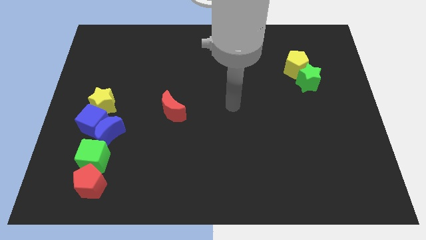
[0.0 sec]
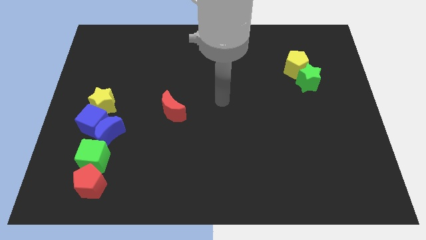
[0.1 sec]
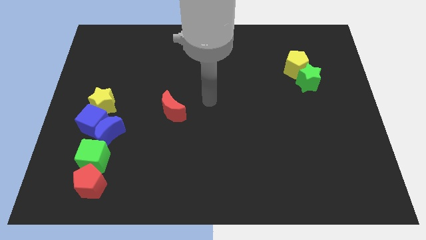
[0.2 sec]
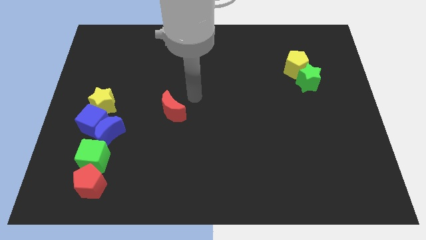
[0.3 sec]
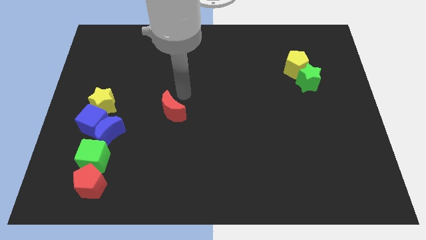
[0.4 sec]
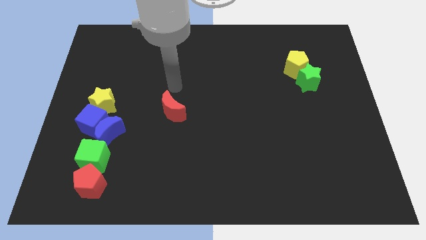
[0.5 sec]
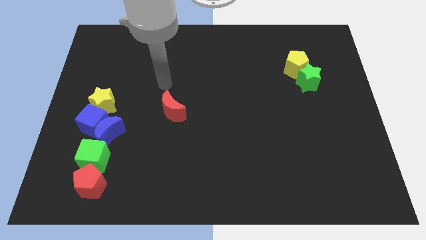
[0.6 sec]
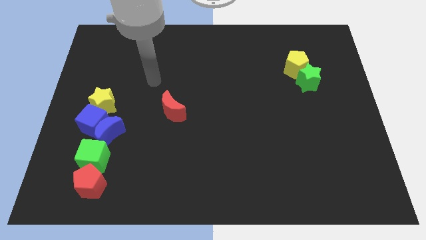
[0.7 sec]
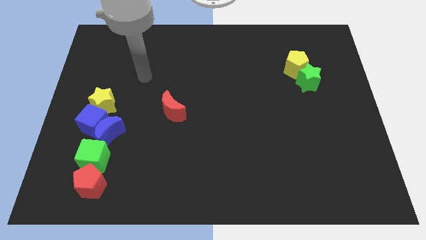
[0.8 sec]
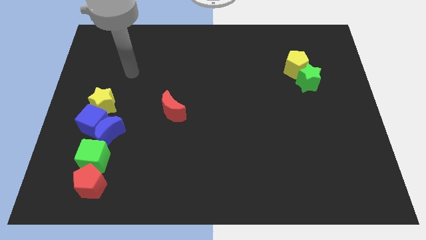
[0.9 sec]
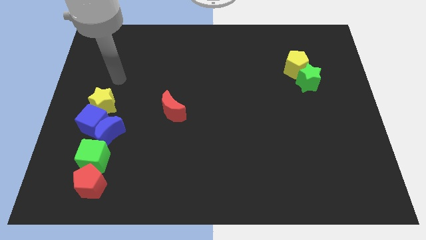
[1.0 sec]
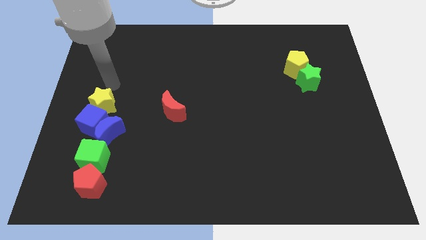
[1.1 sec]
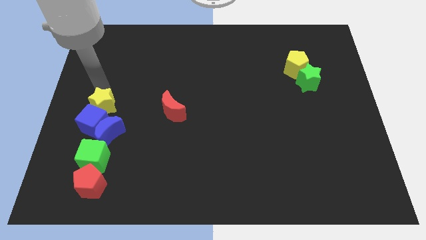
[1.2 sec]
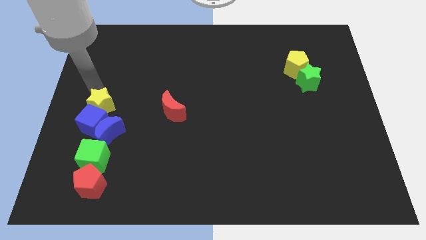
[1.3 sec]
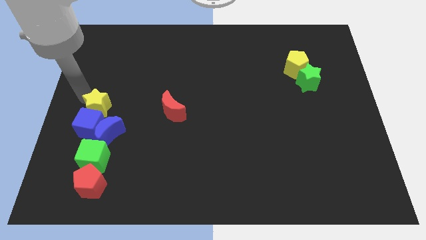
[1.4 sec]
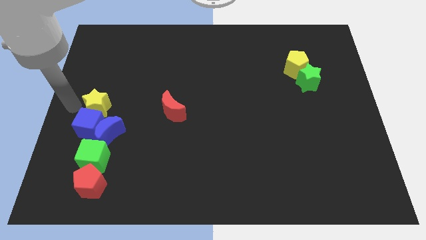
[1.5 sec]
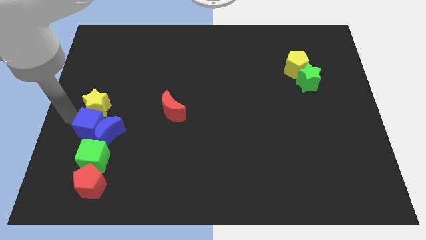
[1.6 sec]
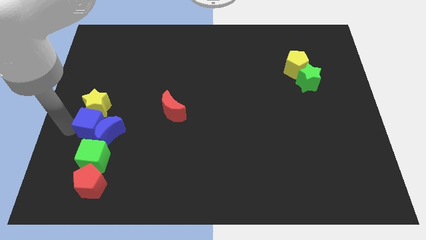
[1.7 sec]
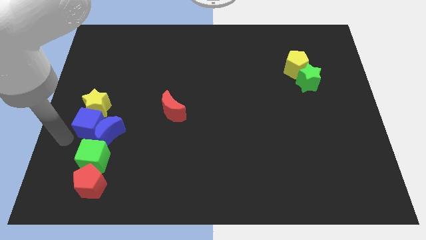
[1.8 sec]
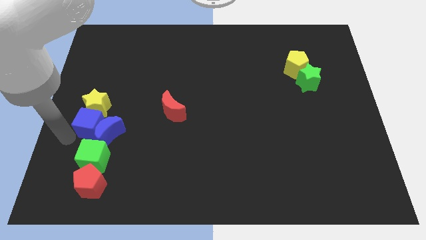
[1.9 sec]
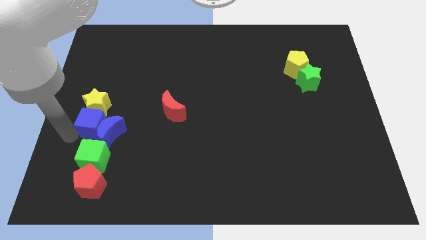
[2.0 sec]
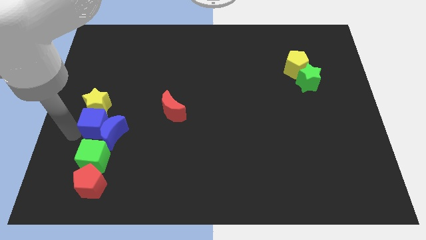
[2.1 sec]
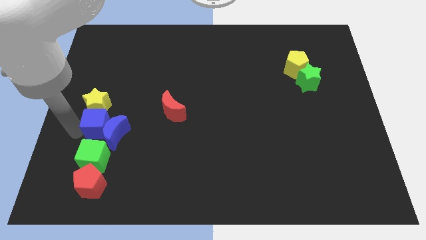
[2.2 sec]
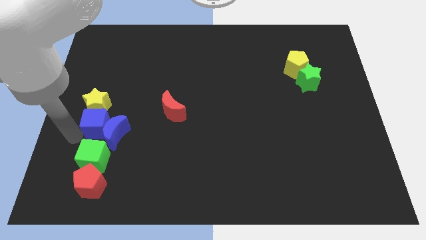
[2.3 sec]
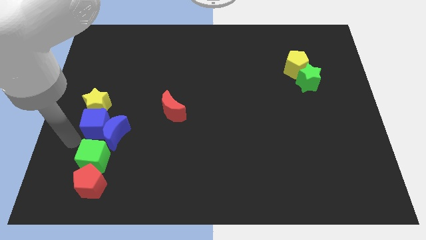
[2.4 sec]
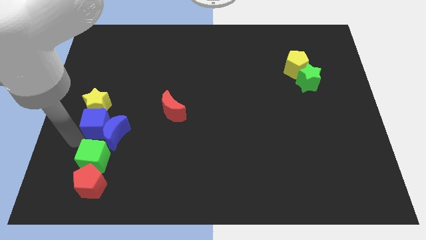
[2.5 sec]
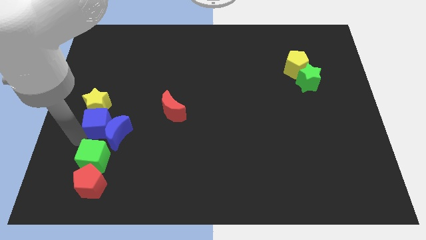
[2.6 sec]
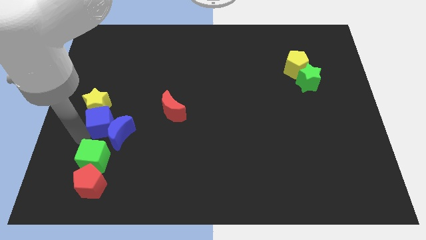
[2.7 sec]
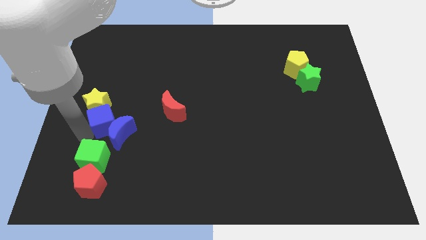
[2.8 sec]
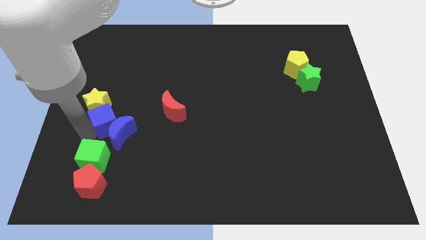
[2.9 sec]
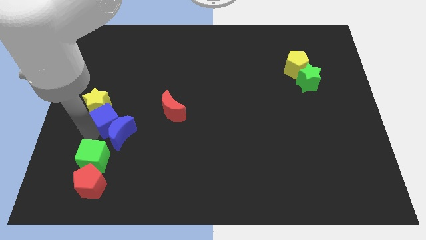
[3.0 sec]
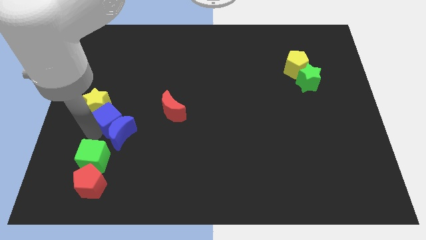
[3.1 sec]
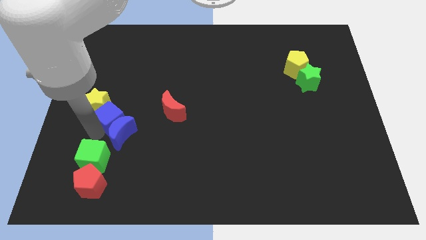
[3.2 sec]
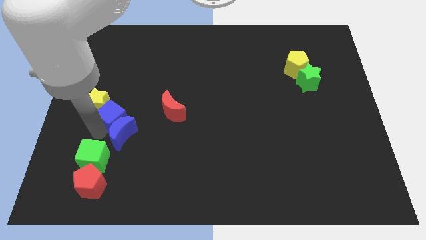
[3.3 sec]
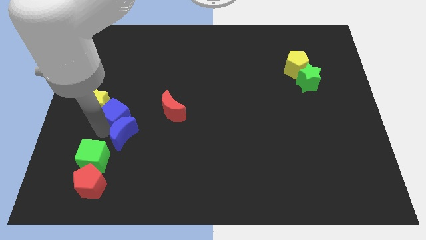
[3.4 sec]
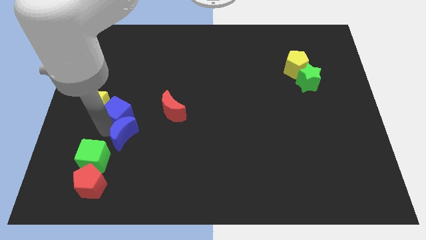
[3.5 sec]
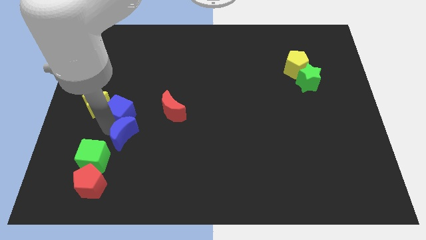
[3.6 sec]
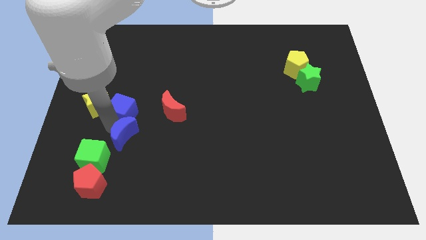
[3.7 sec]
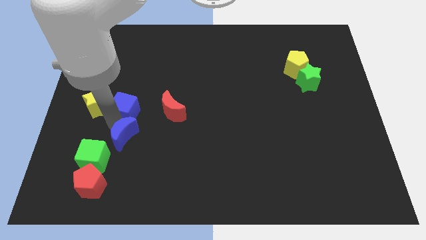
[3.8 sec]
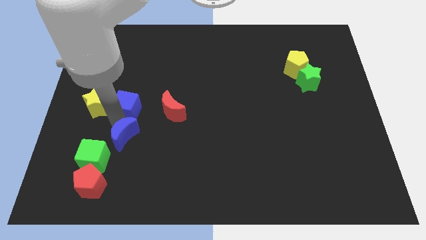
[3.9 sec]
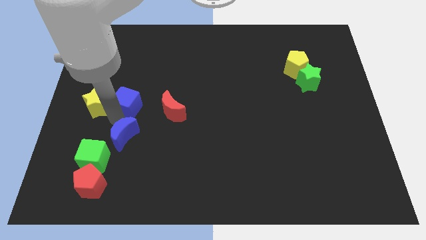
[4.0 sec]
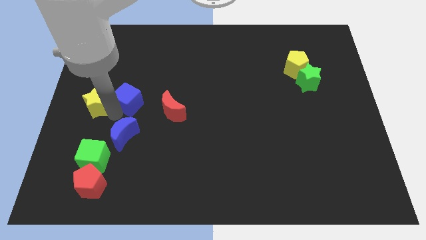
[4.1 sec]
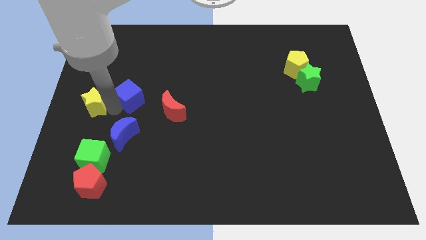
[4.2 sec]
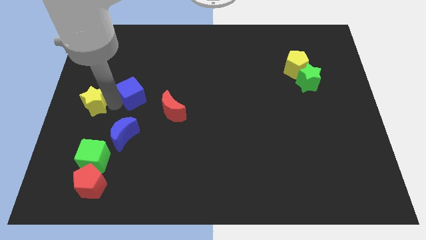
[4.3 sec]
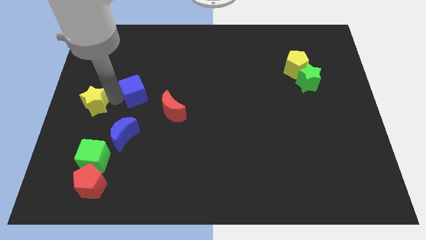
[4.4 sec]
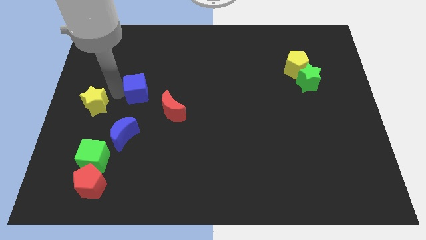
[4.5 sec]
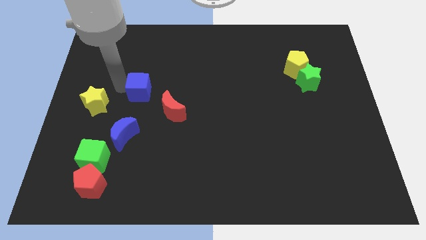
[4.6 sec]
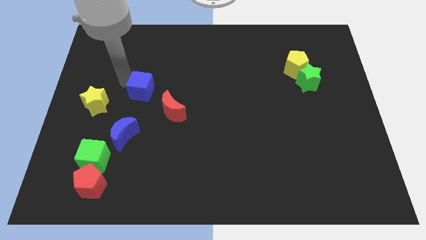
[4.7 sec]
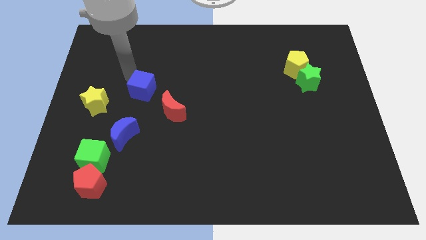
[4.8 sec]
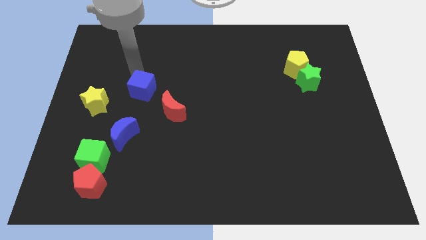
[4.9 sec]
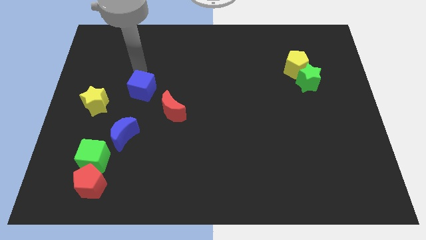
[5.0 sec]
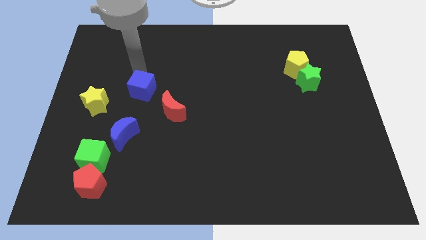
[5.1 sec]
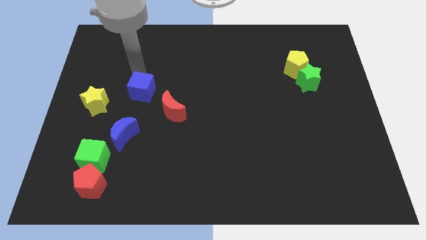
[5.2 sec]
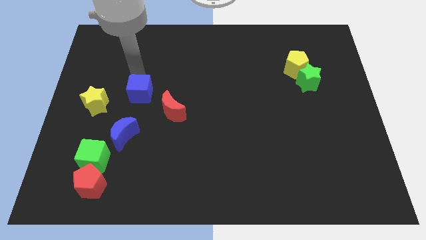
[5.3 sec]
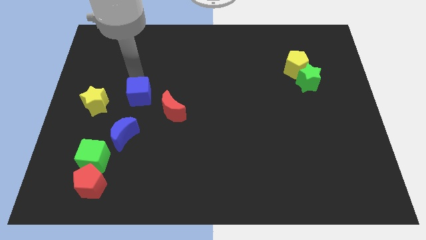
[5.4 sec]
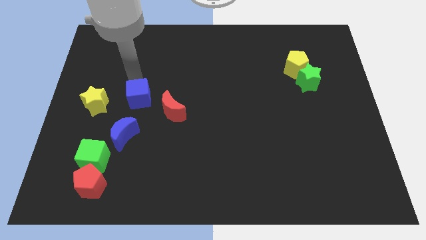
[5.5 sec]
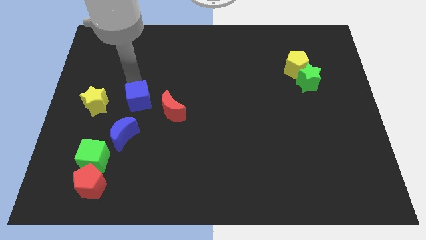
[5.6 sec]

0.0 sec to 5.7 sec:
push the blue cube right a little

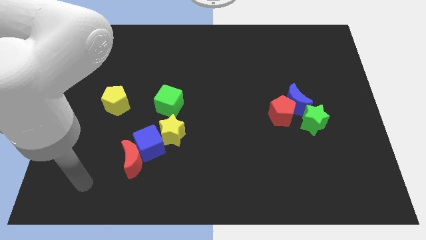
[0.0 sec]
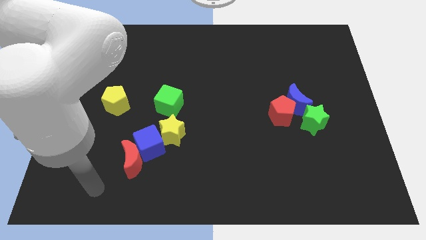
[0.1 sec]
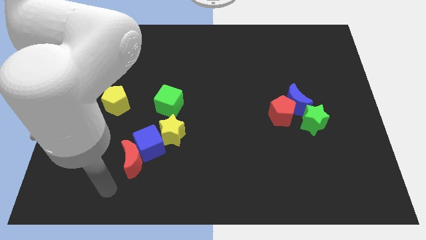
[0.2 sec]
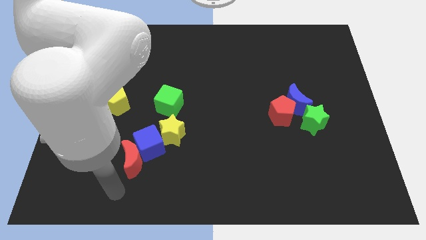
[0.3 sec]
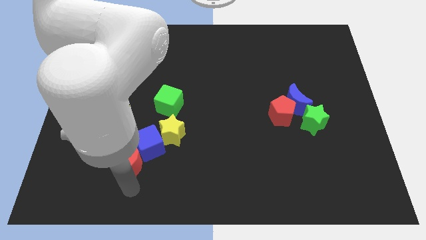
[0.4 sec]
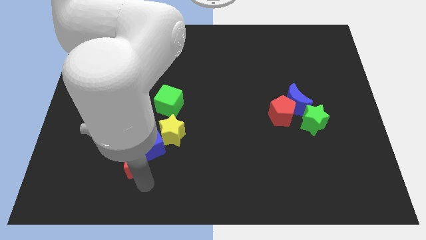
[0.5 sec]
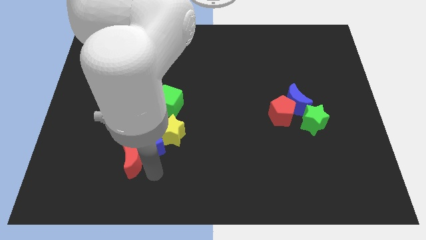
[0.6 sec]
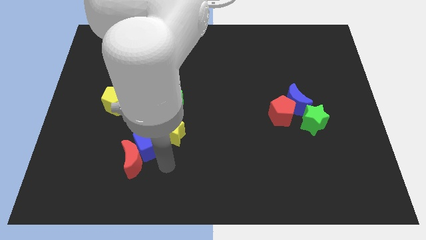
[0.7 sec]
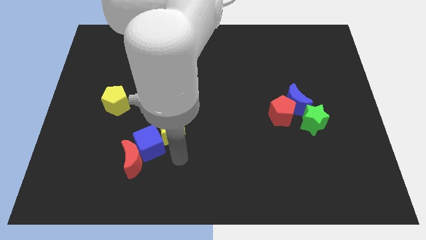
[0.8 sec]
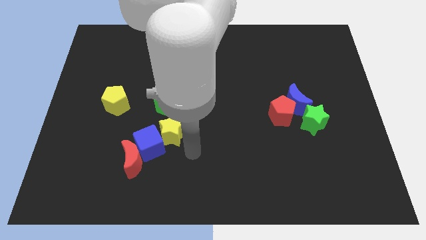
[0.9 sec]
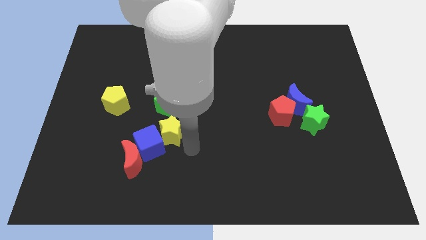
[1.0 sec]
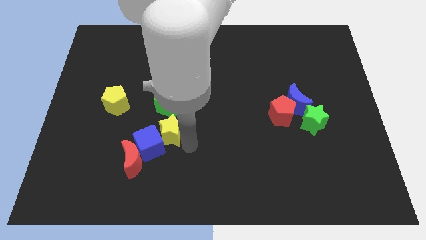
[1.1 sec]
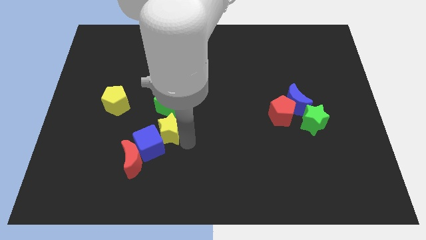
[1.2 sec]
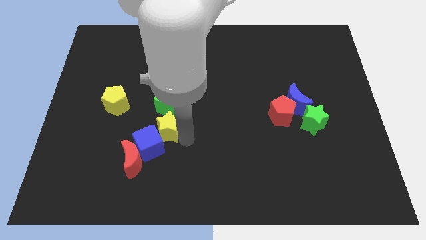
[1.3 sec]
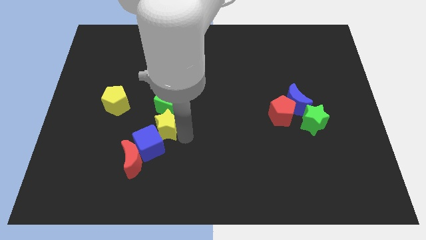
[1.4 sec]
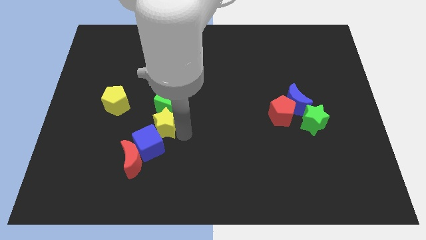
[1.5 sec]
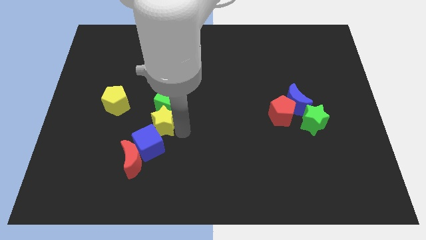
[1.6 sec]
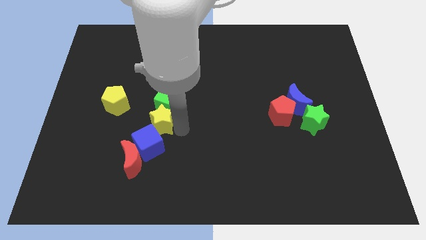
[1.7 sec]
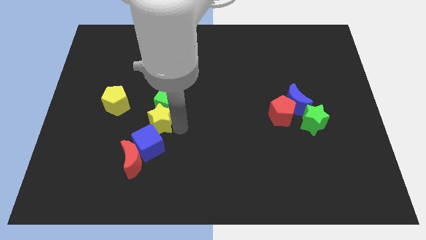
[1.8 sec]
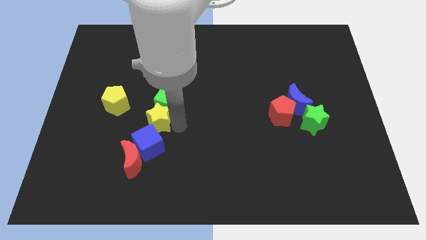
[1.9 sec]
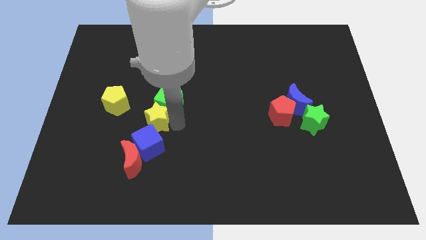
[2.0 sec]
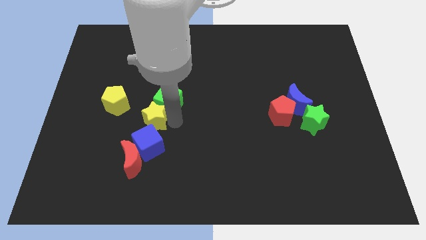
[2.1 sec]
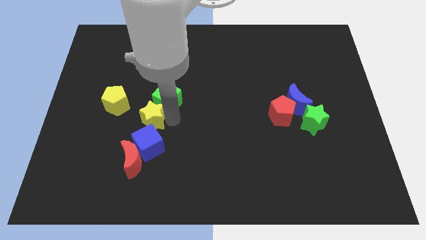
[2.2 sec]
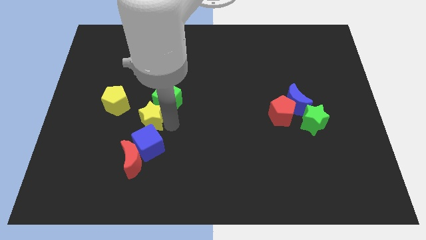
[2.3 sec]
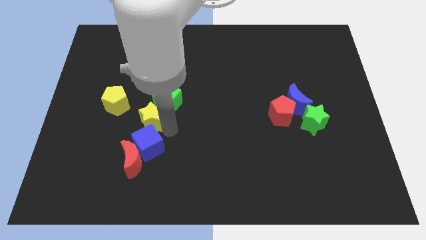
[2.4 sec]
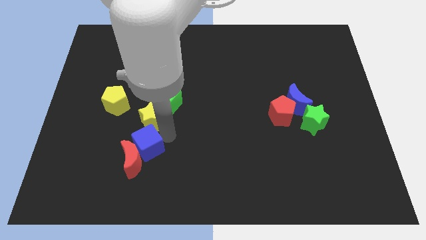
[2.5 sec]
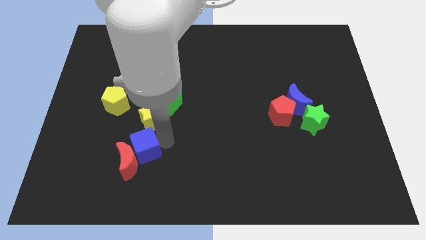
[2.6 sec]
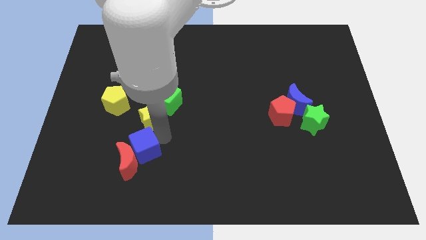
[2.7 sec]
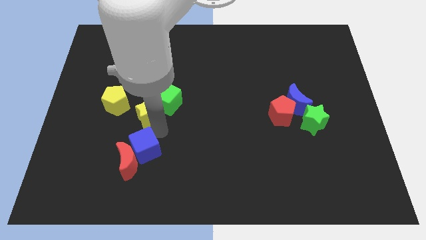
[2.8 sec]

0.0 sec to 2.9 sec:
move the yellow star up and to the left a bit
